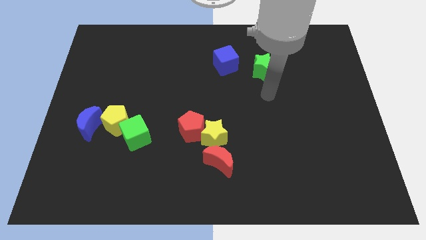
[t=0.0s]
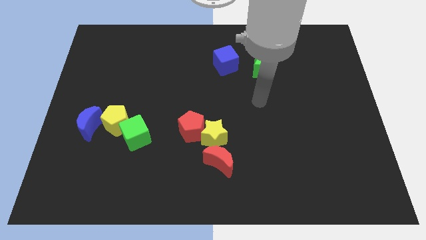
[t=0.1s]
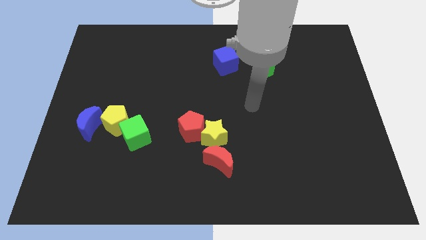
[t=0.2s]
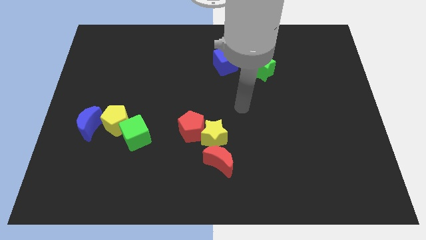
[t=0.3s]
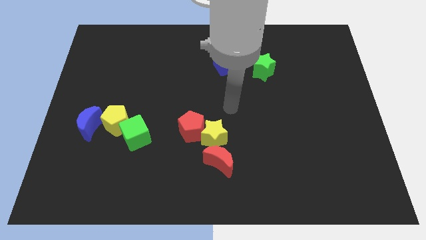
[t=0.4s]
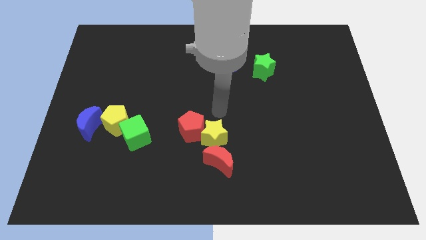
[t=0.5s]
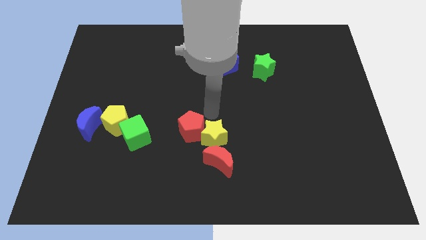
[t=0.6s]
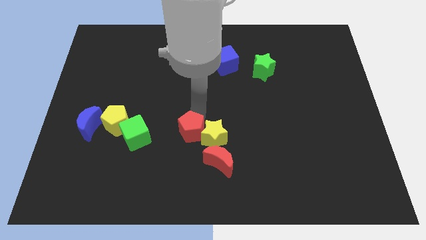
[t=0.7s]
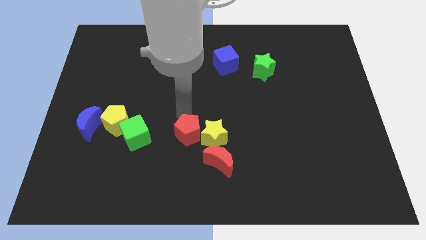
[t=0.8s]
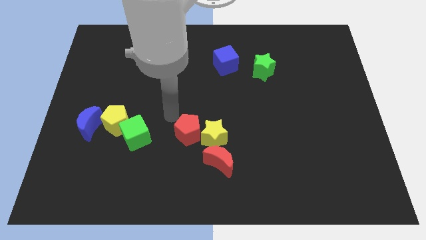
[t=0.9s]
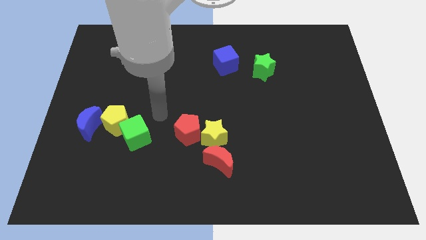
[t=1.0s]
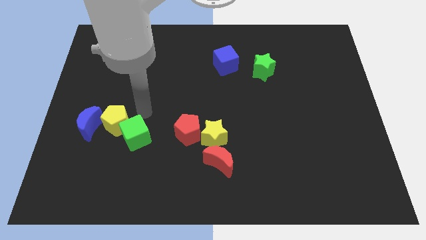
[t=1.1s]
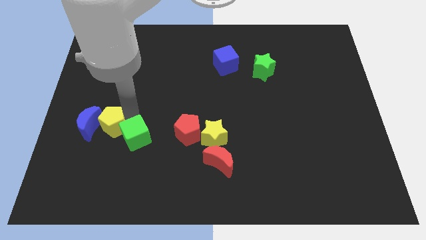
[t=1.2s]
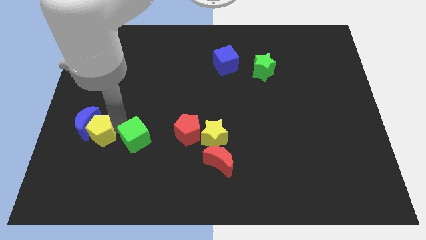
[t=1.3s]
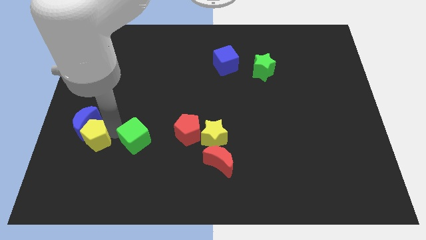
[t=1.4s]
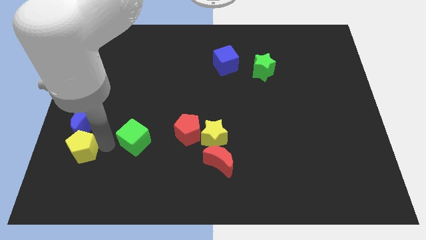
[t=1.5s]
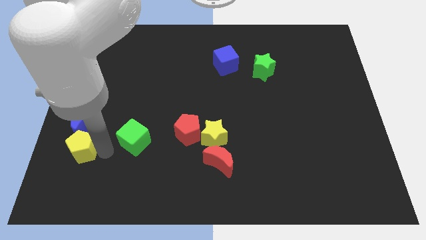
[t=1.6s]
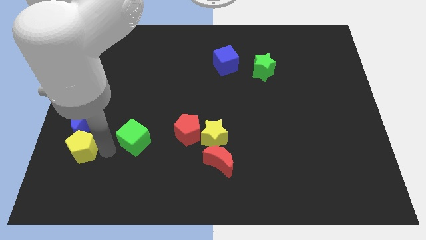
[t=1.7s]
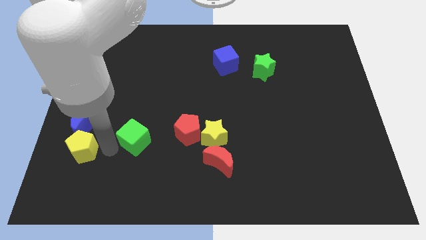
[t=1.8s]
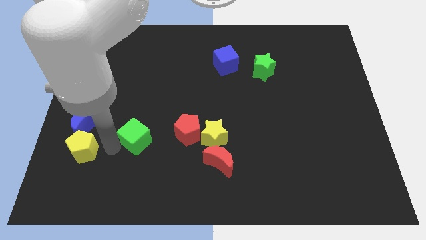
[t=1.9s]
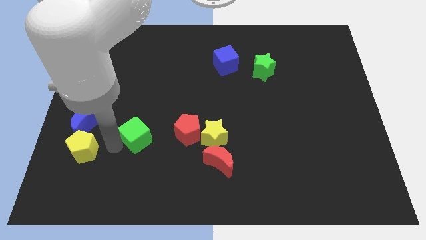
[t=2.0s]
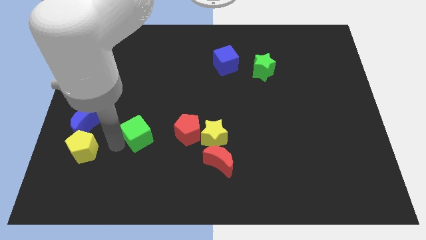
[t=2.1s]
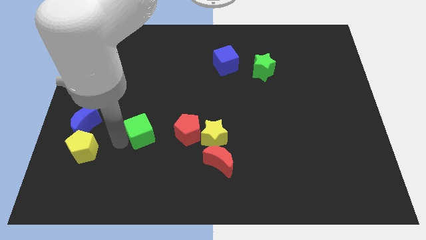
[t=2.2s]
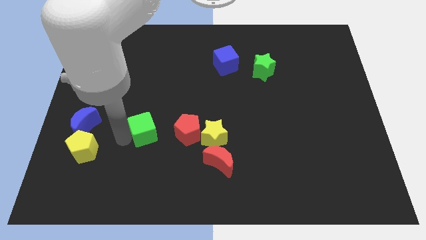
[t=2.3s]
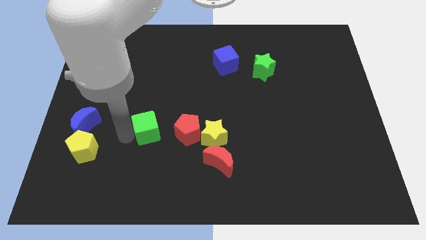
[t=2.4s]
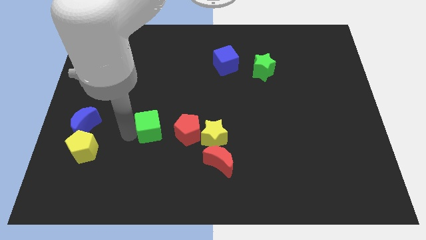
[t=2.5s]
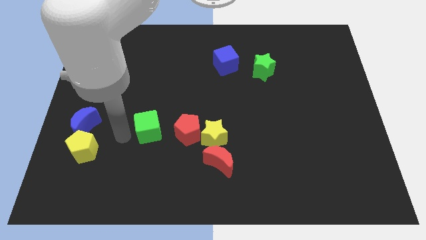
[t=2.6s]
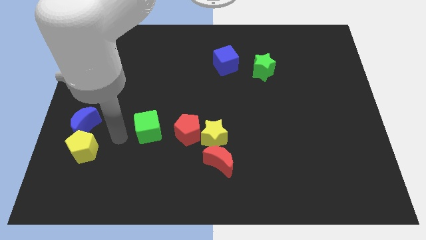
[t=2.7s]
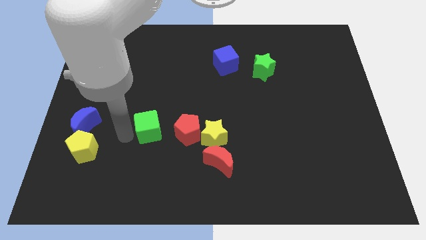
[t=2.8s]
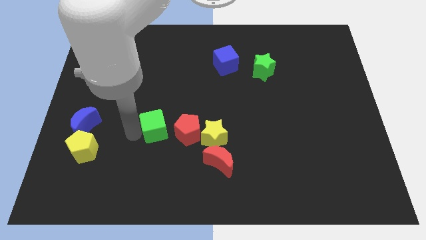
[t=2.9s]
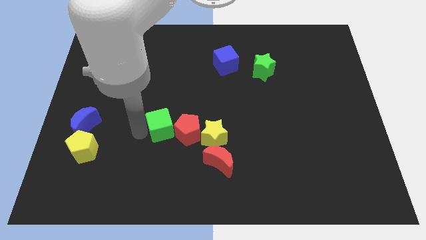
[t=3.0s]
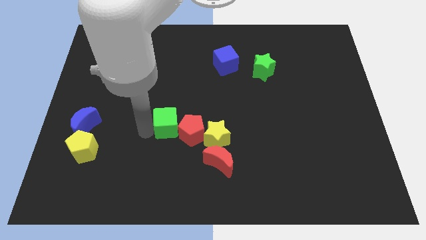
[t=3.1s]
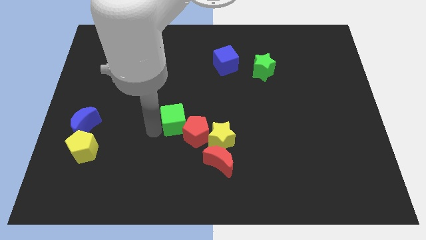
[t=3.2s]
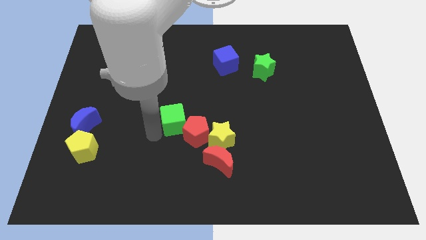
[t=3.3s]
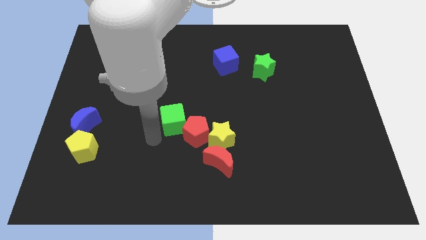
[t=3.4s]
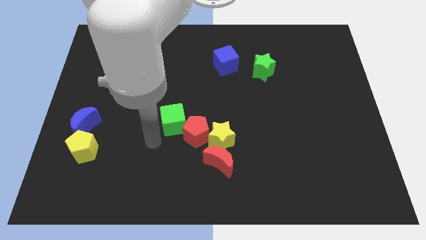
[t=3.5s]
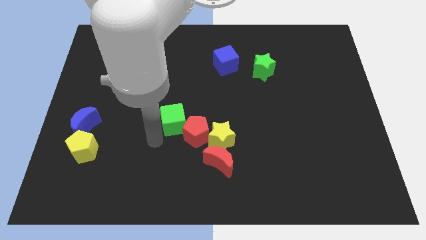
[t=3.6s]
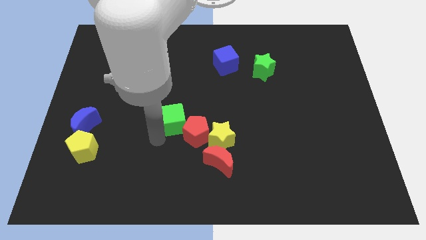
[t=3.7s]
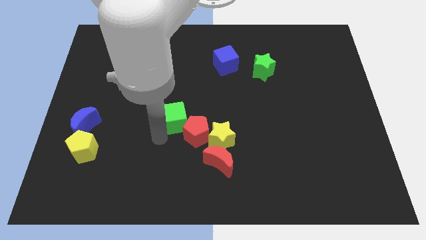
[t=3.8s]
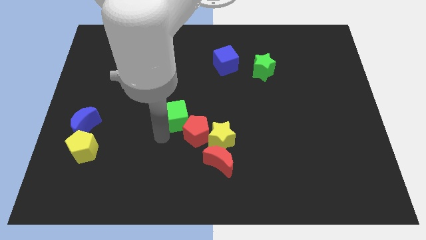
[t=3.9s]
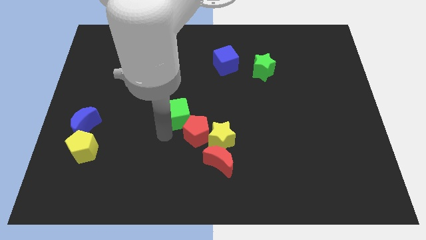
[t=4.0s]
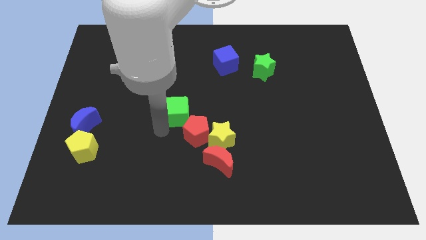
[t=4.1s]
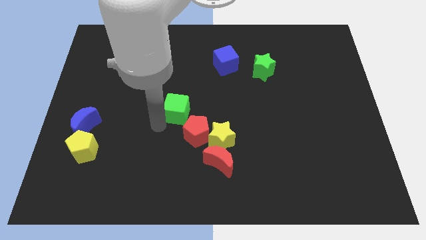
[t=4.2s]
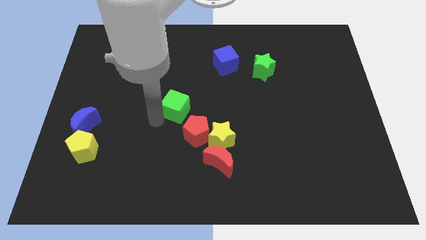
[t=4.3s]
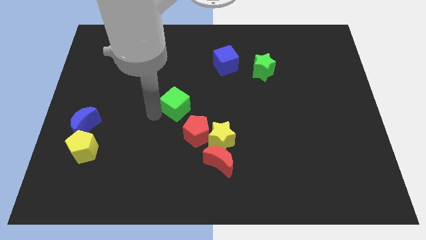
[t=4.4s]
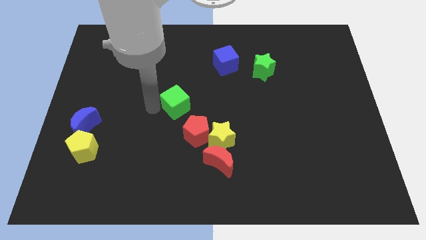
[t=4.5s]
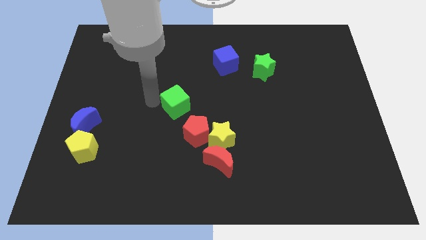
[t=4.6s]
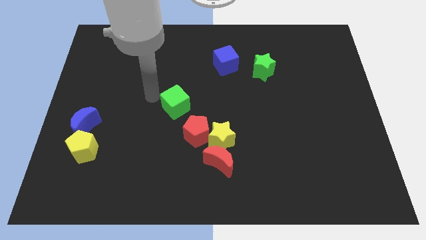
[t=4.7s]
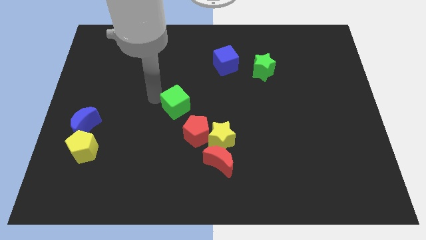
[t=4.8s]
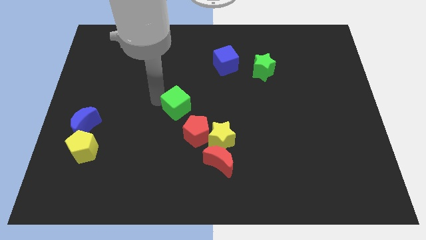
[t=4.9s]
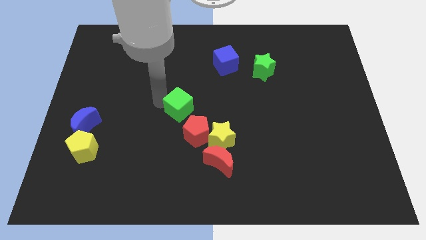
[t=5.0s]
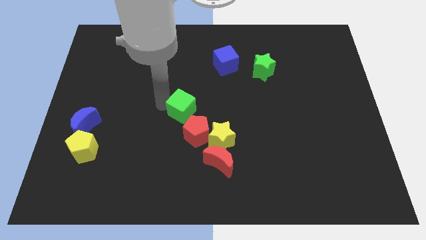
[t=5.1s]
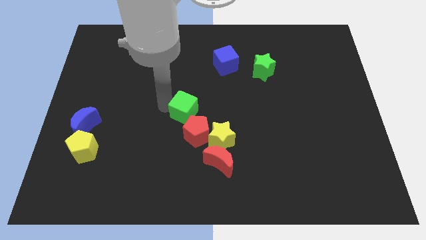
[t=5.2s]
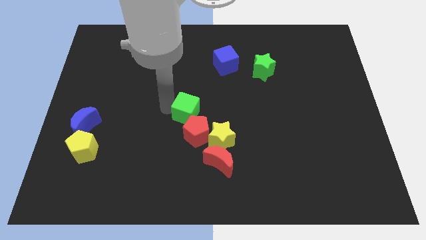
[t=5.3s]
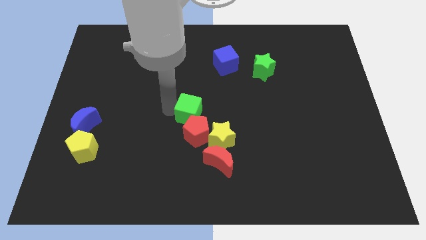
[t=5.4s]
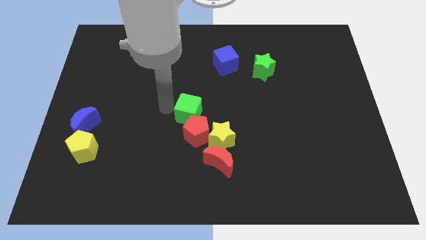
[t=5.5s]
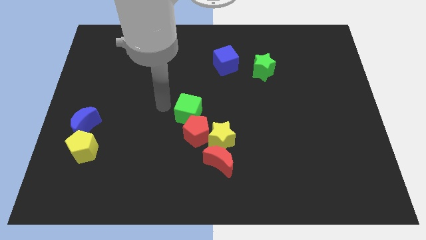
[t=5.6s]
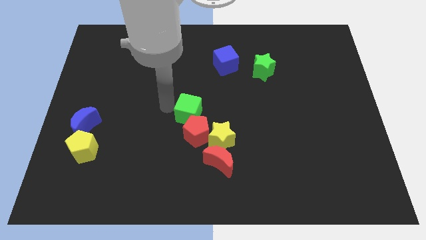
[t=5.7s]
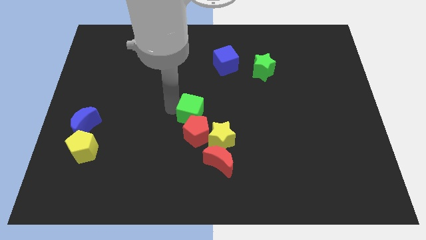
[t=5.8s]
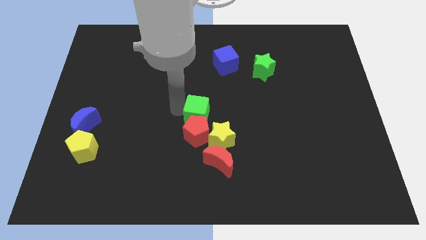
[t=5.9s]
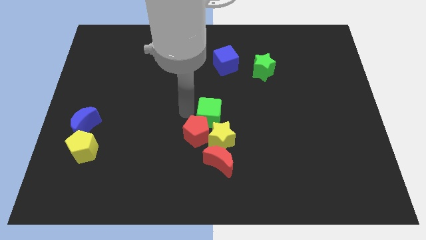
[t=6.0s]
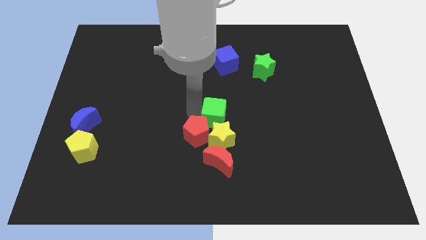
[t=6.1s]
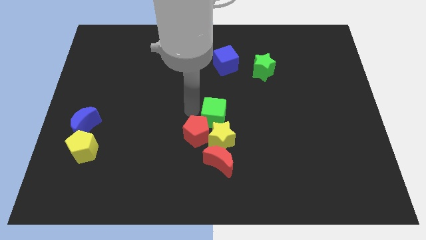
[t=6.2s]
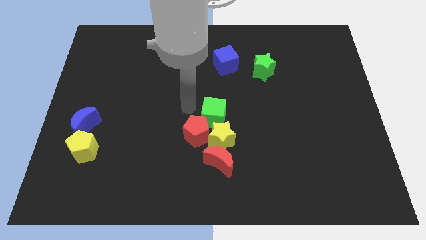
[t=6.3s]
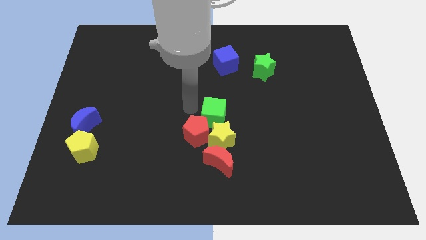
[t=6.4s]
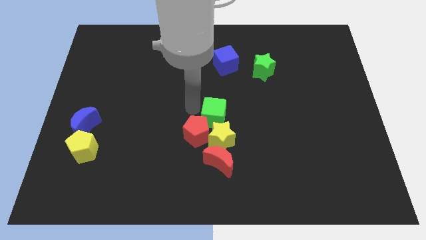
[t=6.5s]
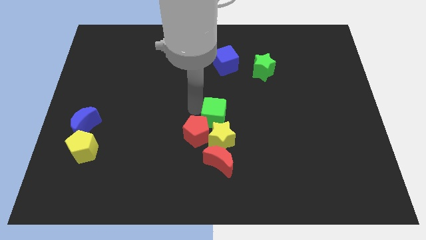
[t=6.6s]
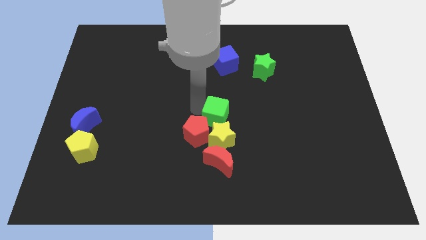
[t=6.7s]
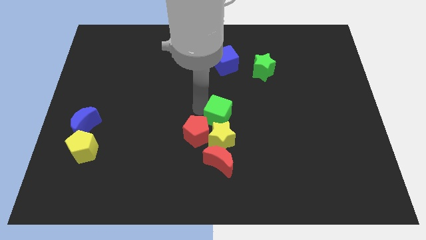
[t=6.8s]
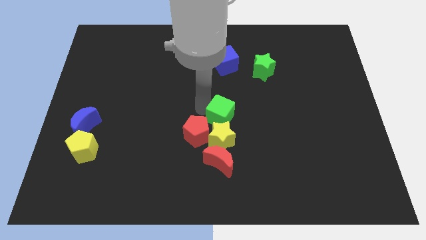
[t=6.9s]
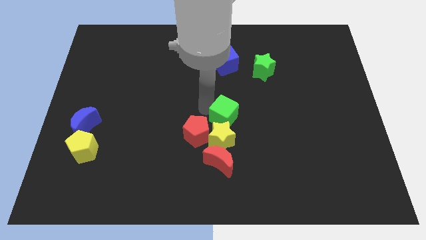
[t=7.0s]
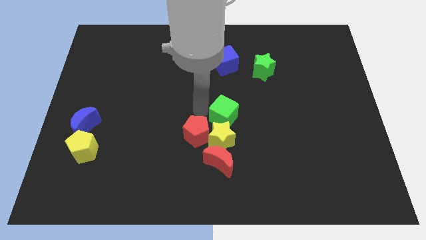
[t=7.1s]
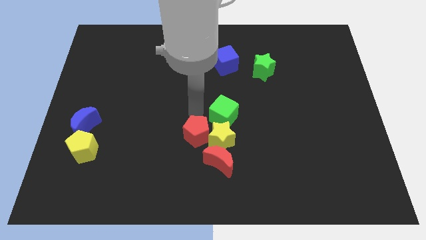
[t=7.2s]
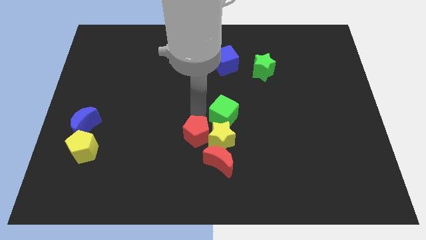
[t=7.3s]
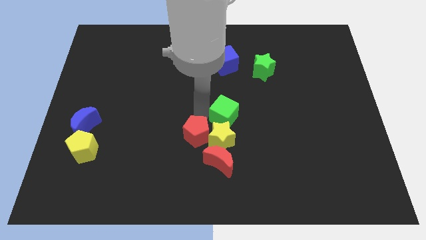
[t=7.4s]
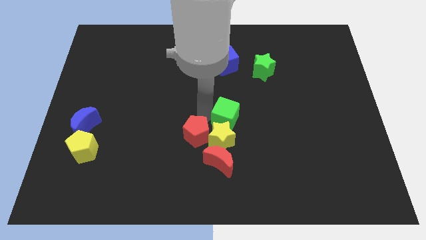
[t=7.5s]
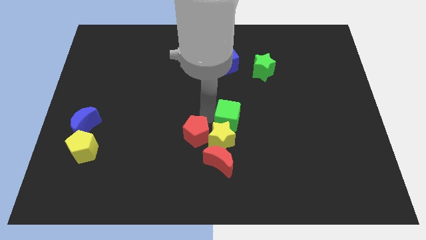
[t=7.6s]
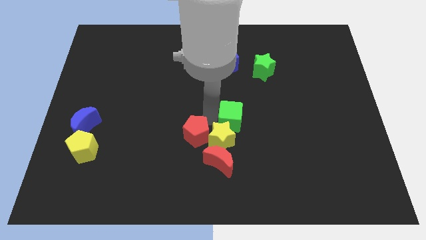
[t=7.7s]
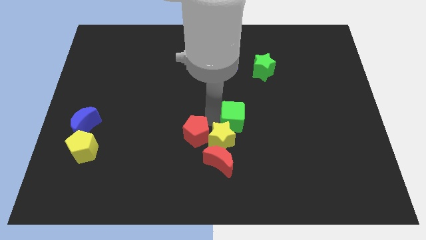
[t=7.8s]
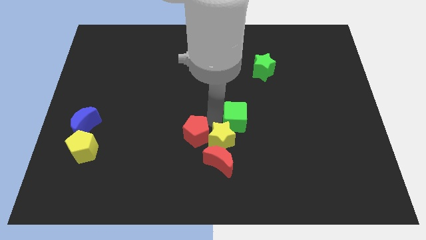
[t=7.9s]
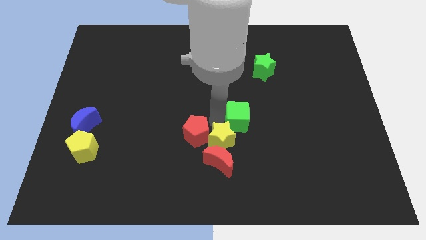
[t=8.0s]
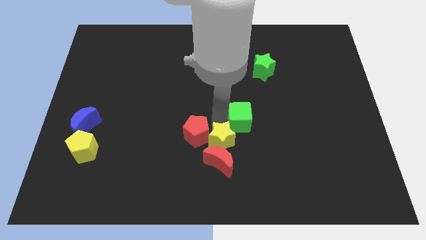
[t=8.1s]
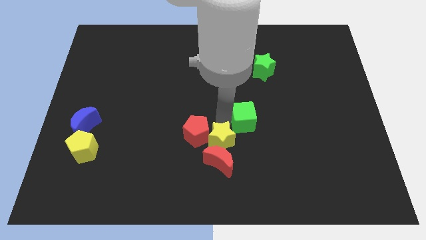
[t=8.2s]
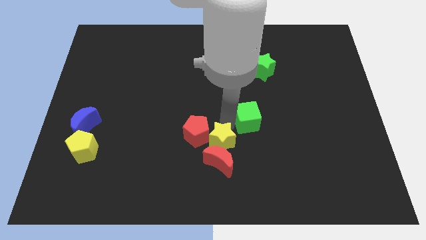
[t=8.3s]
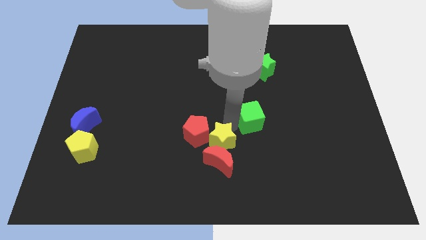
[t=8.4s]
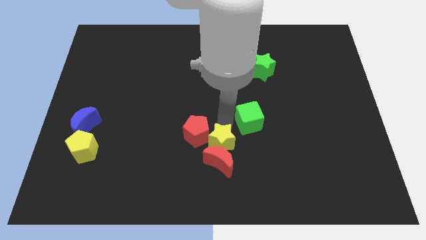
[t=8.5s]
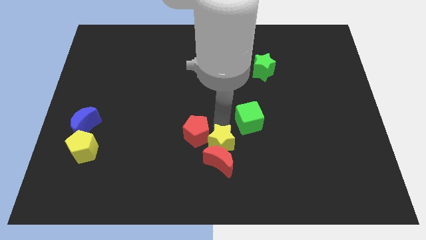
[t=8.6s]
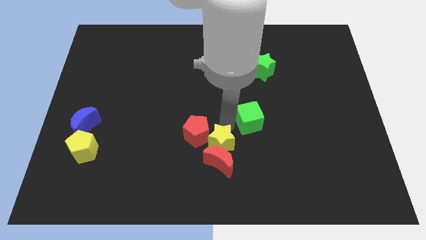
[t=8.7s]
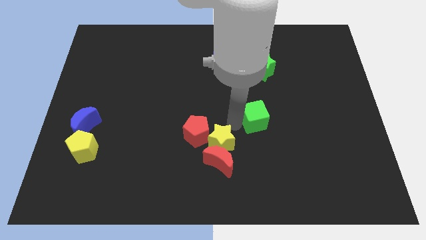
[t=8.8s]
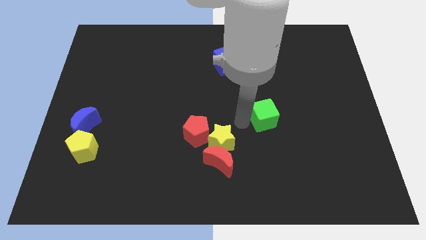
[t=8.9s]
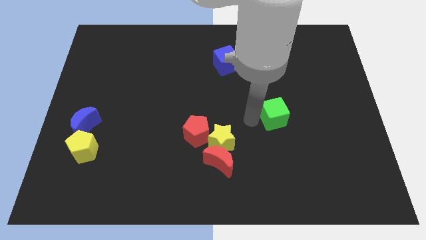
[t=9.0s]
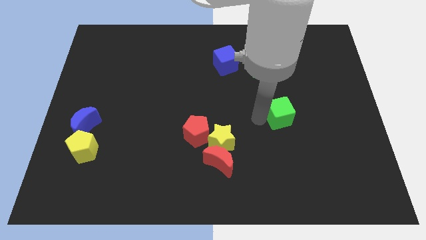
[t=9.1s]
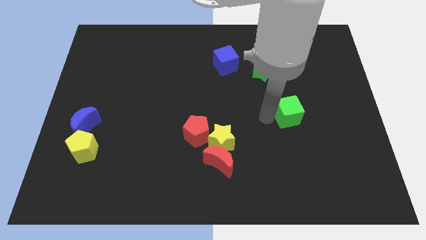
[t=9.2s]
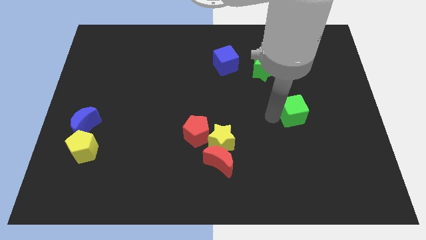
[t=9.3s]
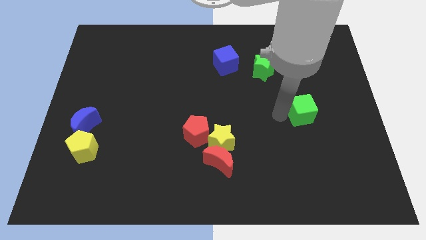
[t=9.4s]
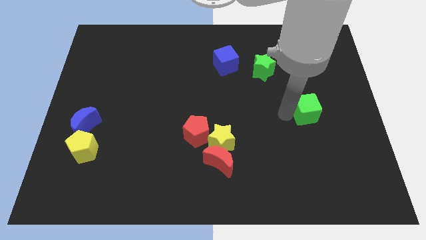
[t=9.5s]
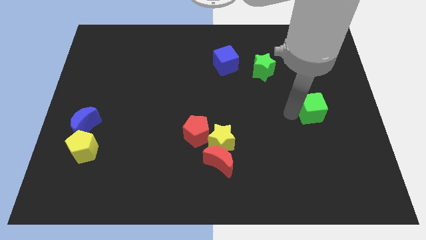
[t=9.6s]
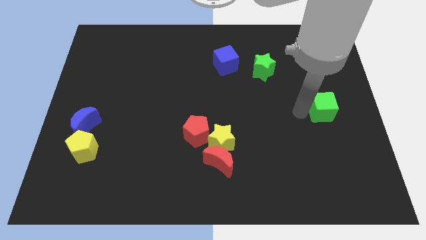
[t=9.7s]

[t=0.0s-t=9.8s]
put the green cube to the center right
